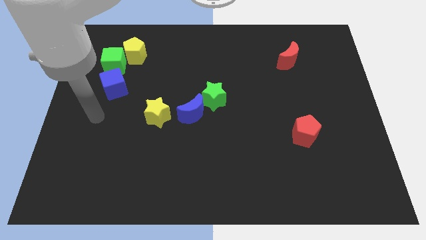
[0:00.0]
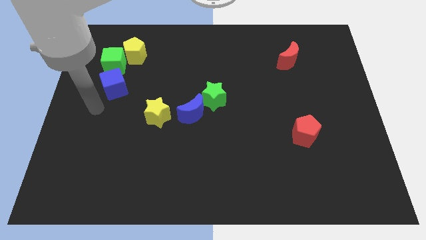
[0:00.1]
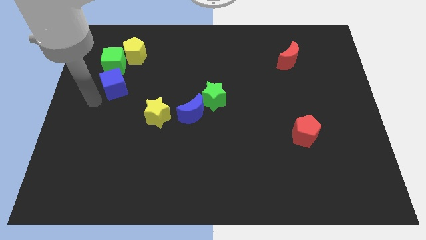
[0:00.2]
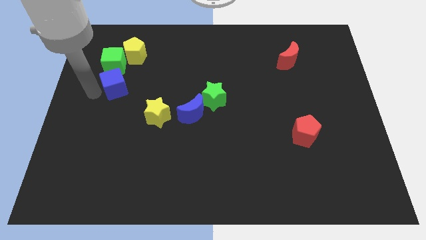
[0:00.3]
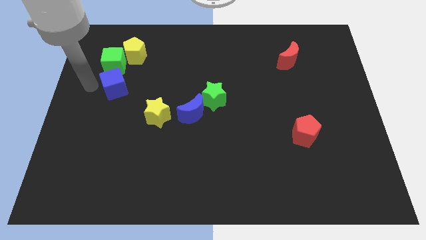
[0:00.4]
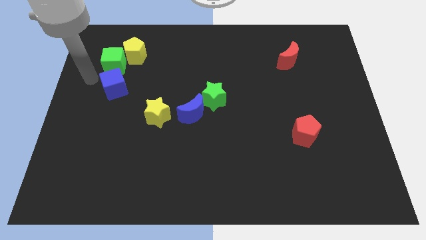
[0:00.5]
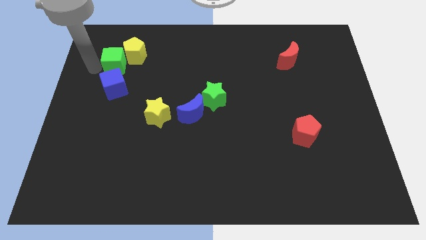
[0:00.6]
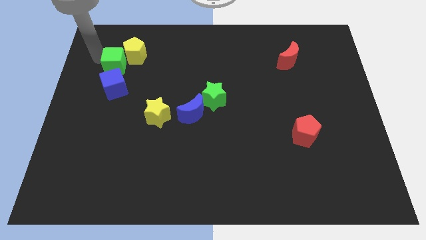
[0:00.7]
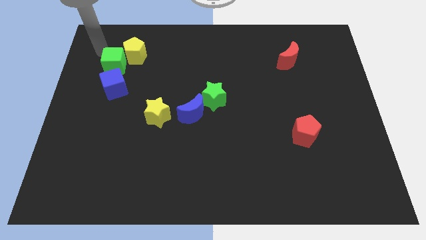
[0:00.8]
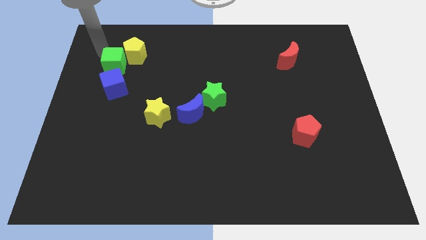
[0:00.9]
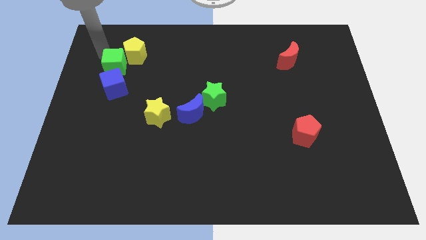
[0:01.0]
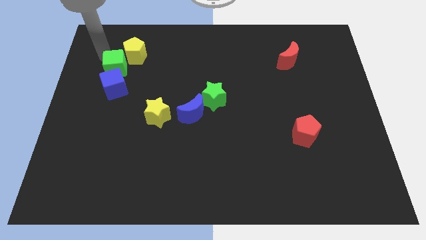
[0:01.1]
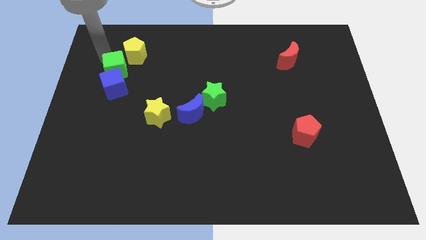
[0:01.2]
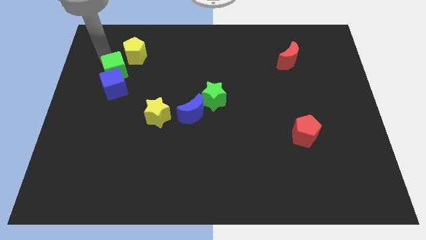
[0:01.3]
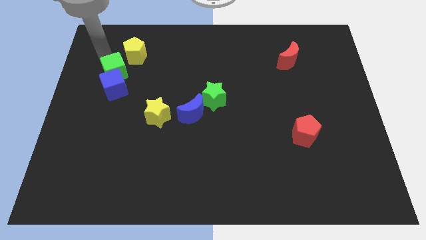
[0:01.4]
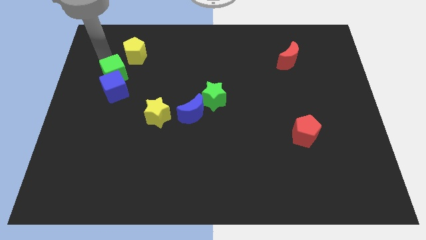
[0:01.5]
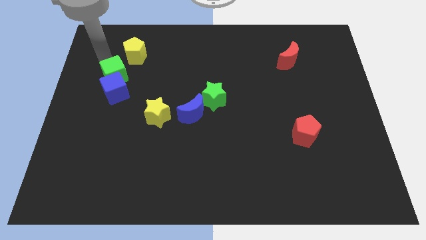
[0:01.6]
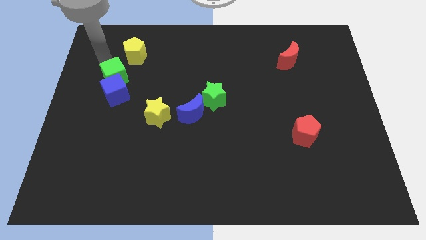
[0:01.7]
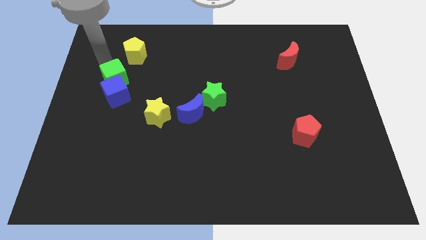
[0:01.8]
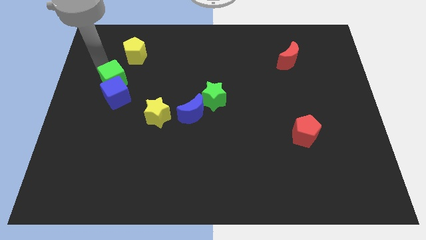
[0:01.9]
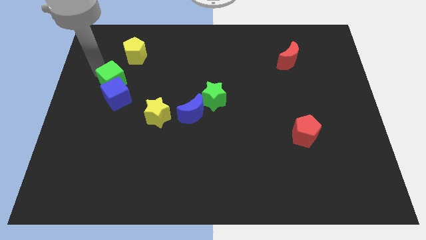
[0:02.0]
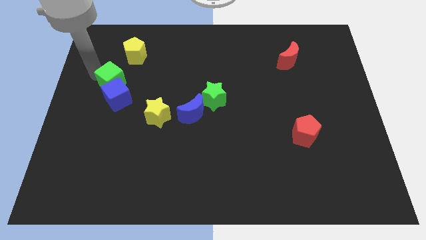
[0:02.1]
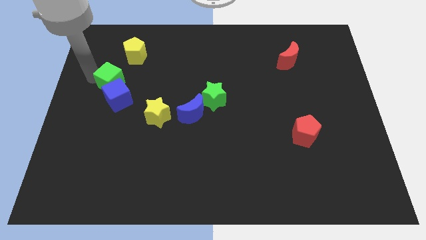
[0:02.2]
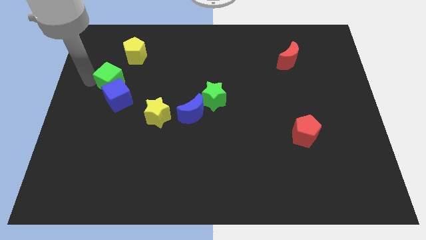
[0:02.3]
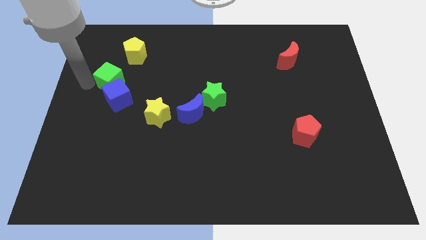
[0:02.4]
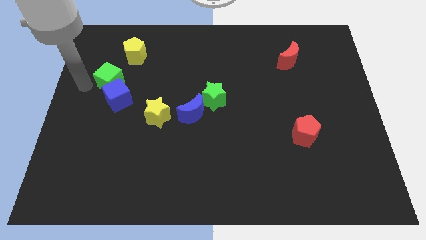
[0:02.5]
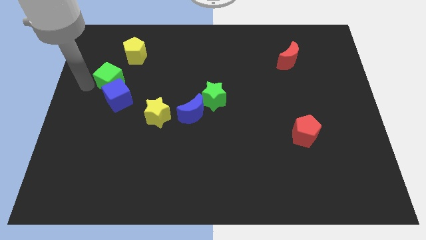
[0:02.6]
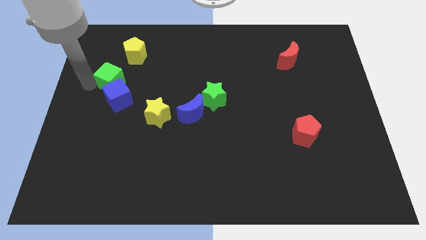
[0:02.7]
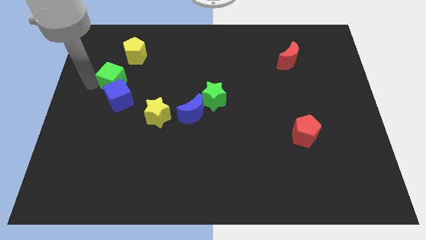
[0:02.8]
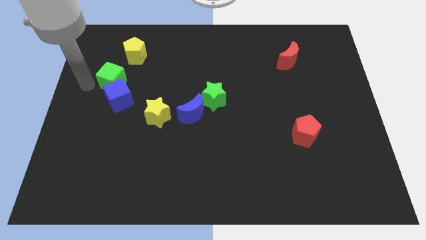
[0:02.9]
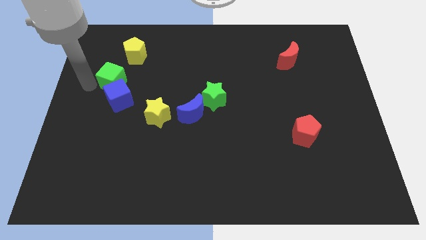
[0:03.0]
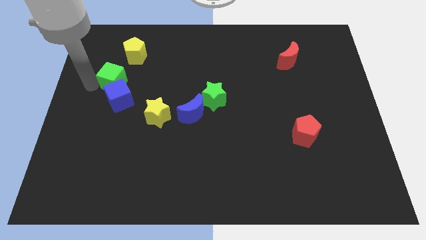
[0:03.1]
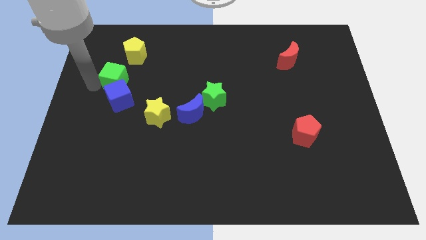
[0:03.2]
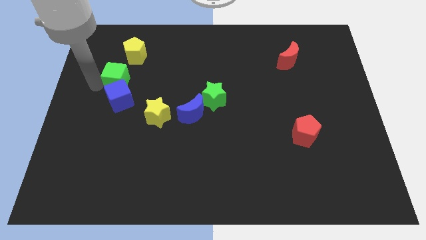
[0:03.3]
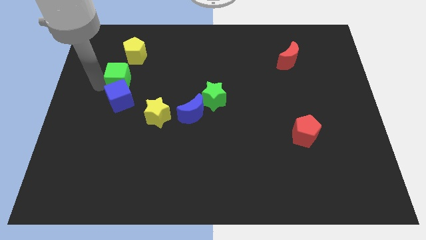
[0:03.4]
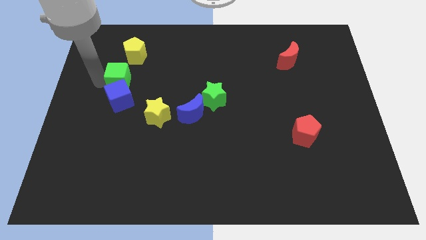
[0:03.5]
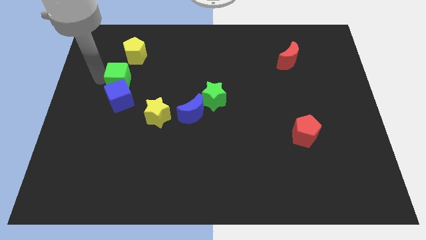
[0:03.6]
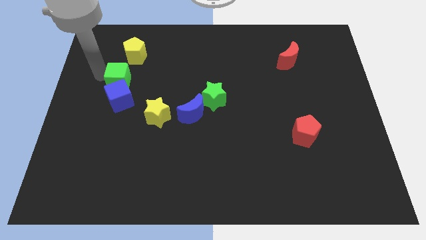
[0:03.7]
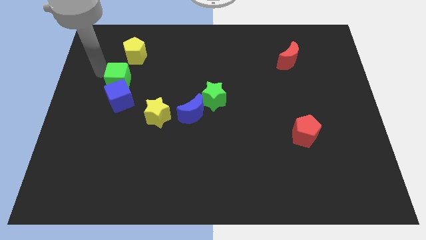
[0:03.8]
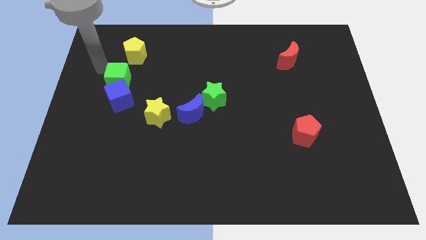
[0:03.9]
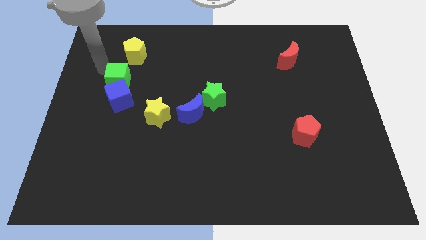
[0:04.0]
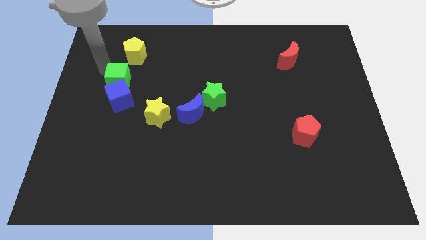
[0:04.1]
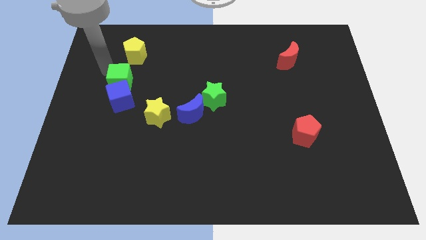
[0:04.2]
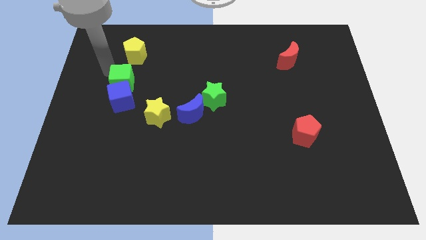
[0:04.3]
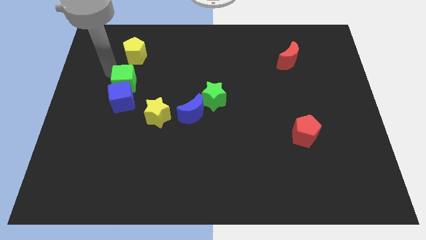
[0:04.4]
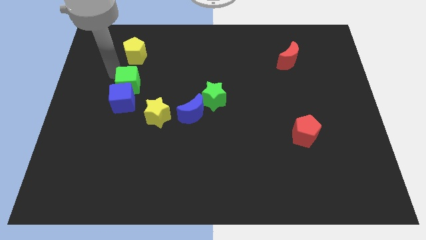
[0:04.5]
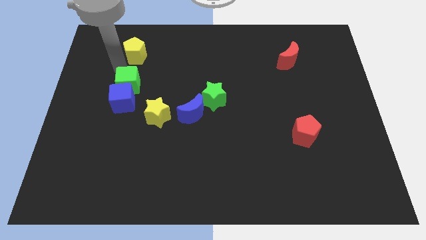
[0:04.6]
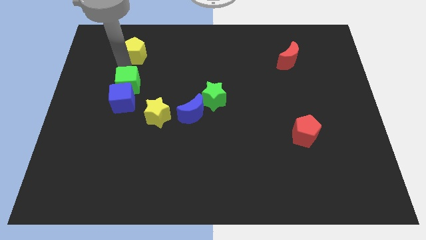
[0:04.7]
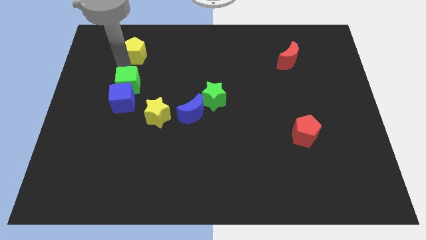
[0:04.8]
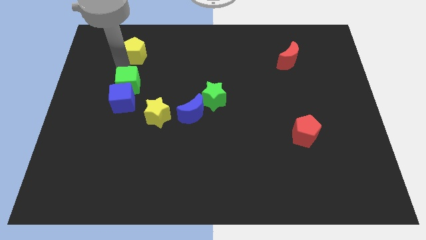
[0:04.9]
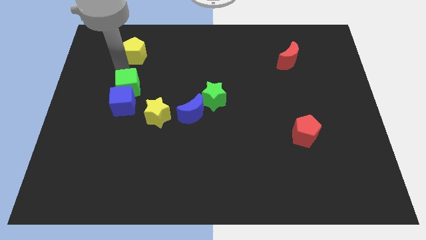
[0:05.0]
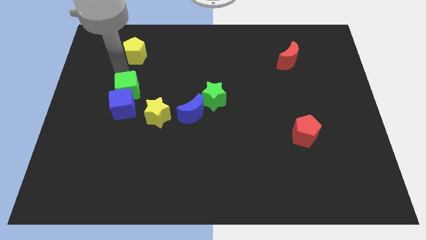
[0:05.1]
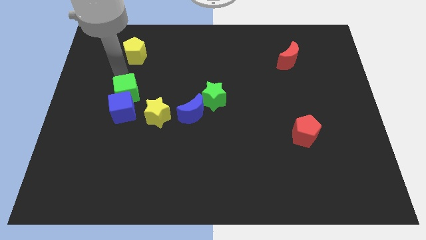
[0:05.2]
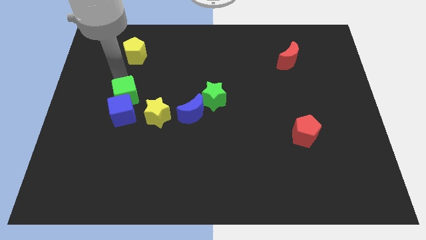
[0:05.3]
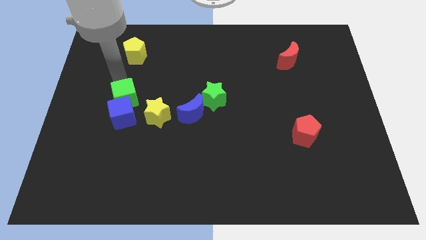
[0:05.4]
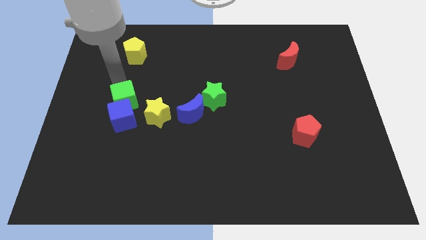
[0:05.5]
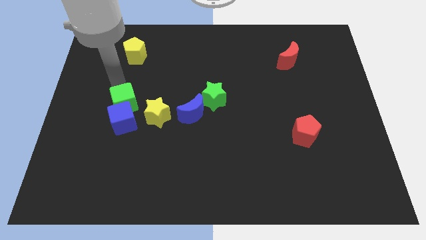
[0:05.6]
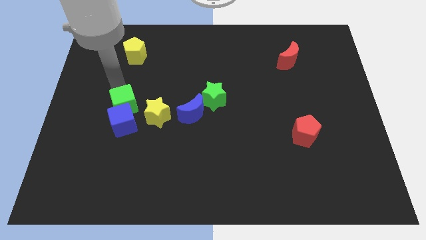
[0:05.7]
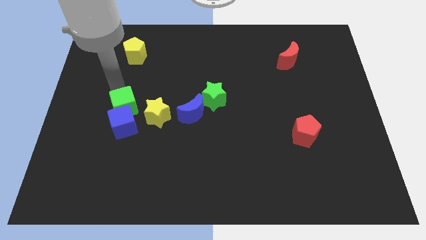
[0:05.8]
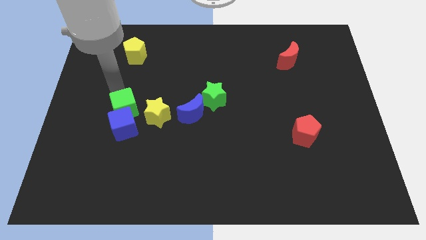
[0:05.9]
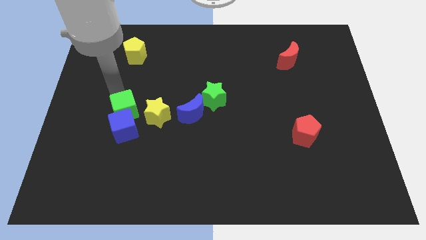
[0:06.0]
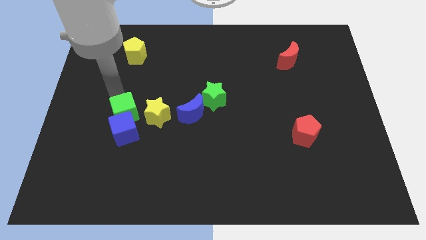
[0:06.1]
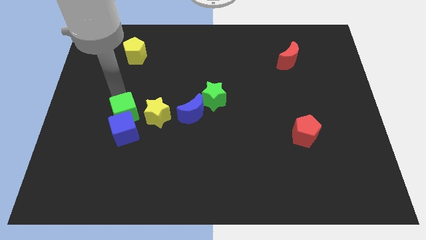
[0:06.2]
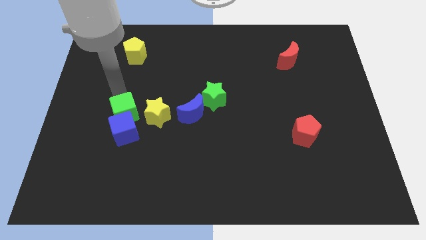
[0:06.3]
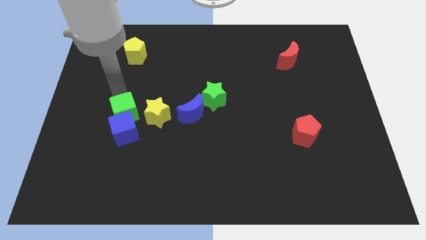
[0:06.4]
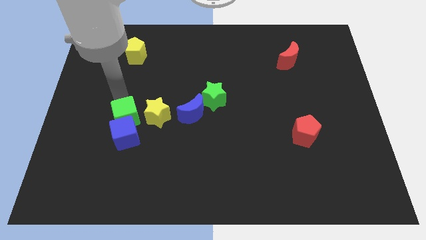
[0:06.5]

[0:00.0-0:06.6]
put the green cube diagonally down and to the left of the yellow star

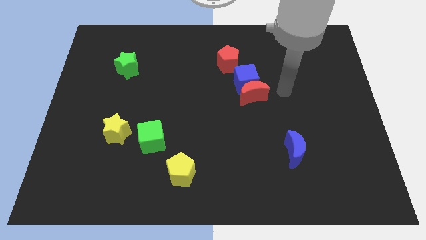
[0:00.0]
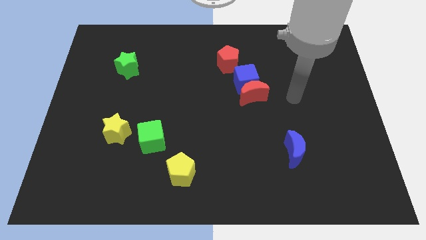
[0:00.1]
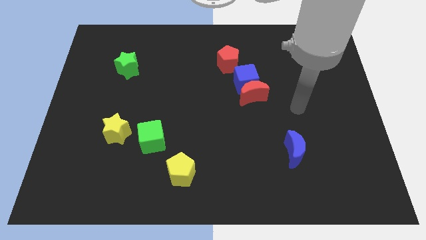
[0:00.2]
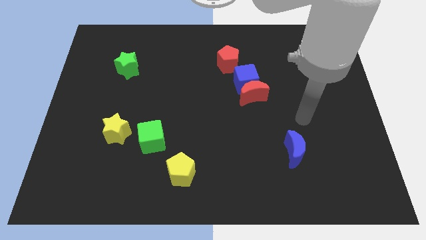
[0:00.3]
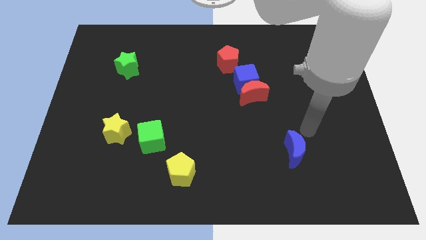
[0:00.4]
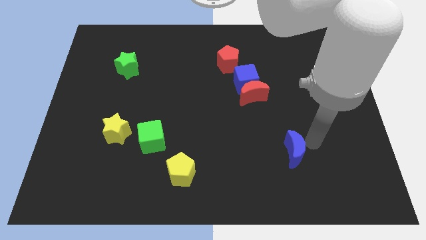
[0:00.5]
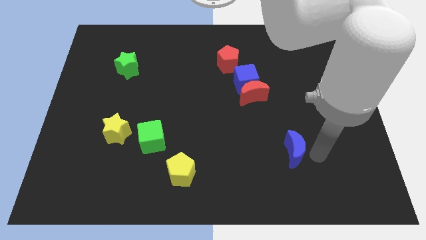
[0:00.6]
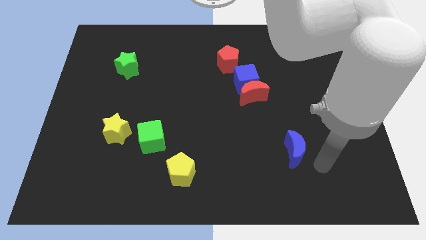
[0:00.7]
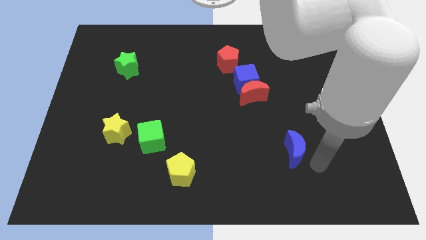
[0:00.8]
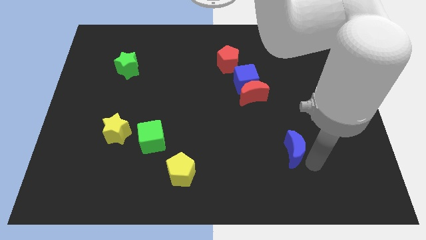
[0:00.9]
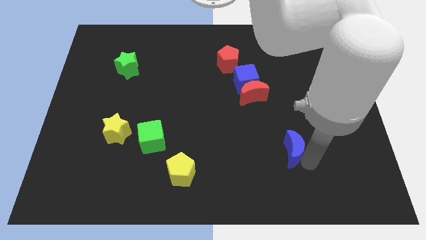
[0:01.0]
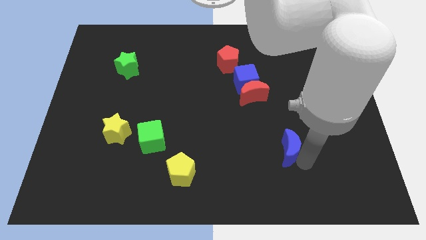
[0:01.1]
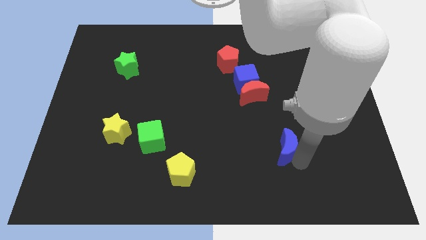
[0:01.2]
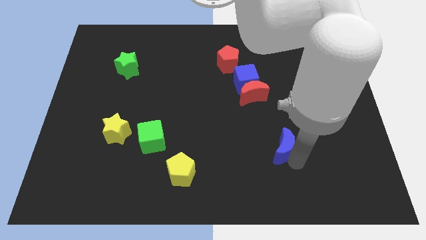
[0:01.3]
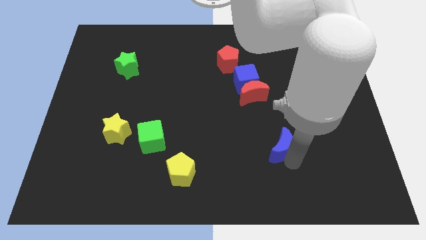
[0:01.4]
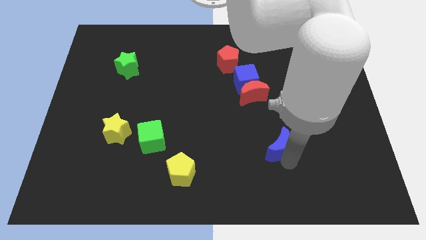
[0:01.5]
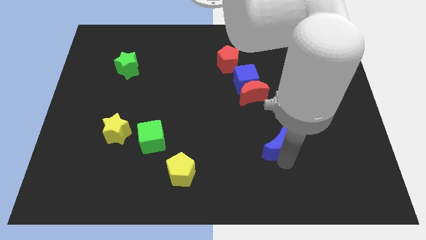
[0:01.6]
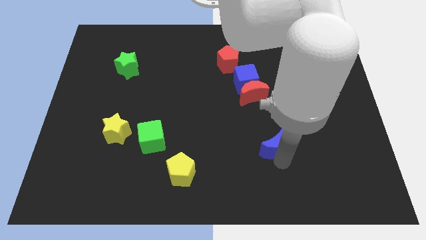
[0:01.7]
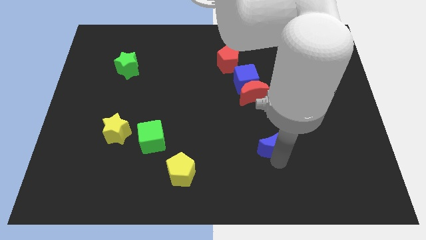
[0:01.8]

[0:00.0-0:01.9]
put the blue moon below the red moon
